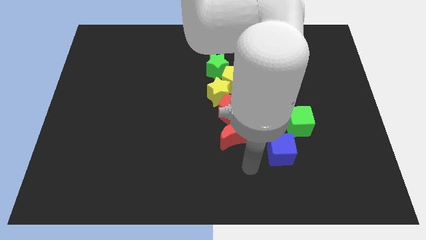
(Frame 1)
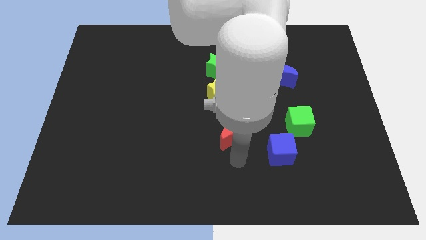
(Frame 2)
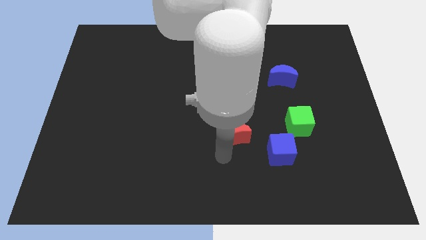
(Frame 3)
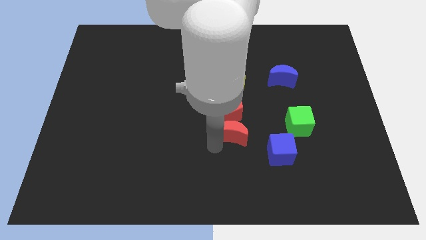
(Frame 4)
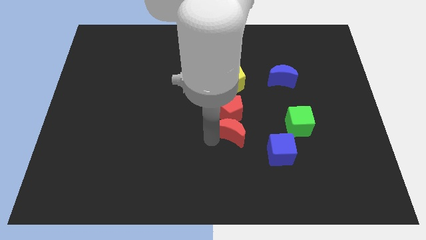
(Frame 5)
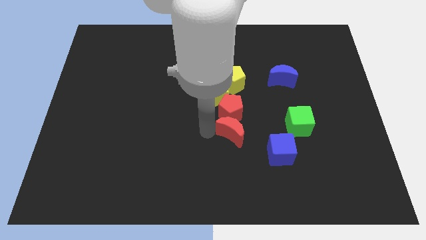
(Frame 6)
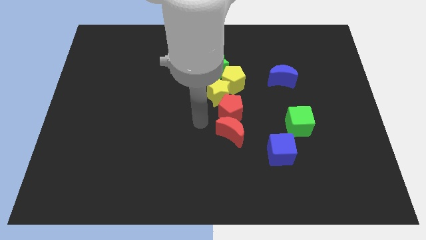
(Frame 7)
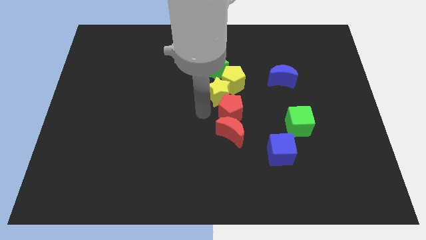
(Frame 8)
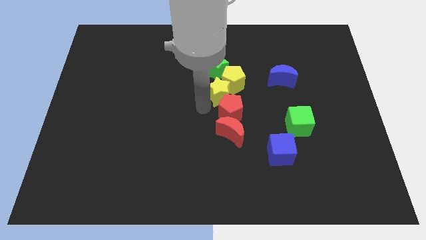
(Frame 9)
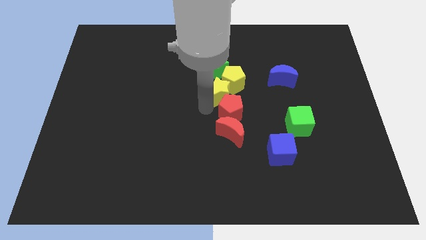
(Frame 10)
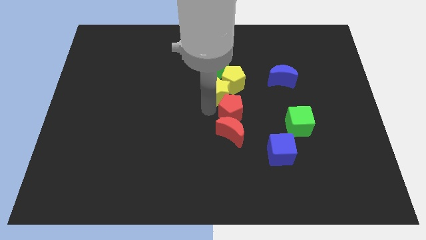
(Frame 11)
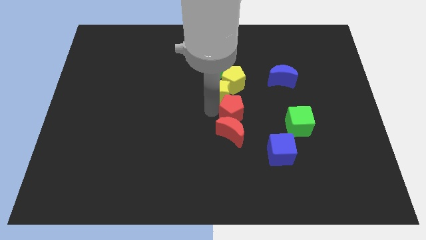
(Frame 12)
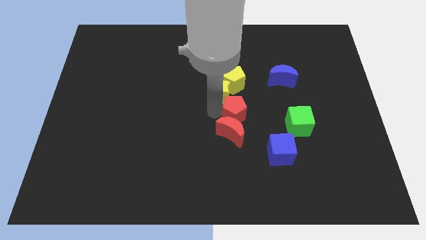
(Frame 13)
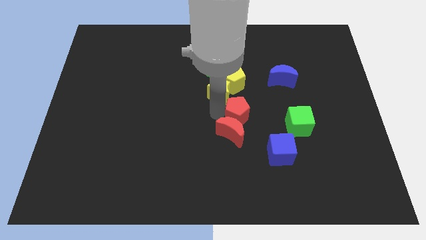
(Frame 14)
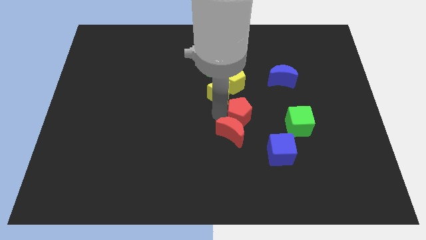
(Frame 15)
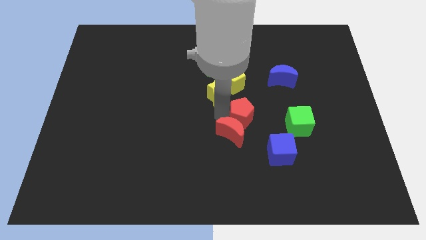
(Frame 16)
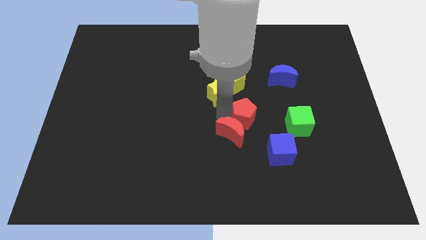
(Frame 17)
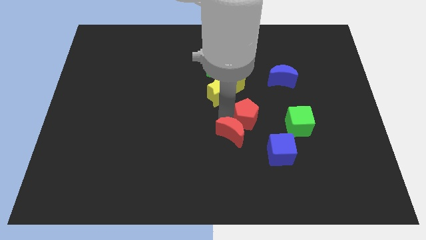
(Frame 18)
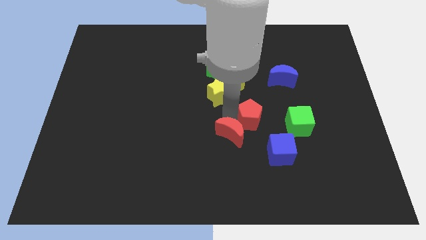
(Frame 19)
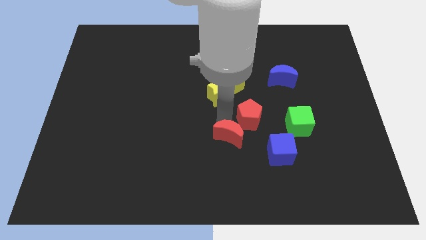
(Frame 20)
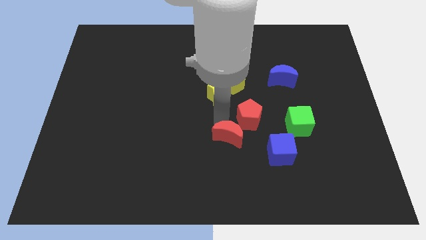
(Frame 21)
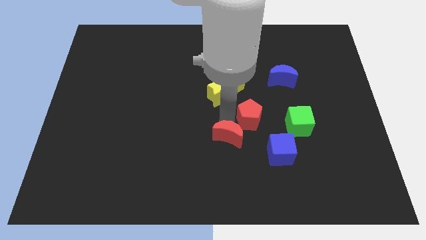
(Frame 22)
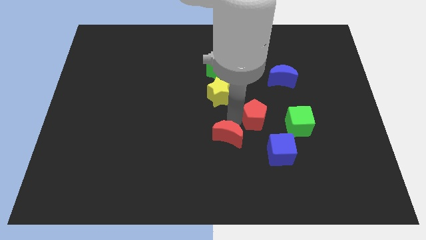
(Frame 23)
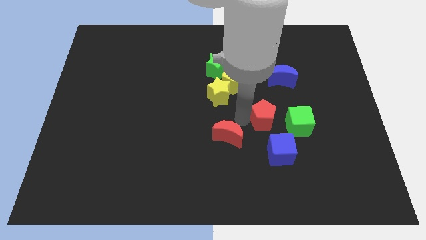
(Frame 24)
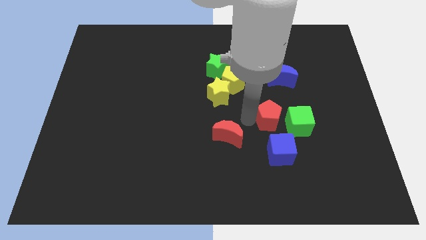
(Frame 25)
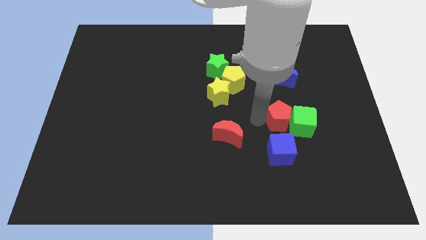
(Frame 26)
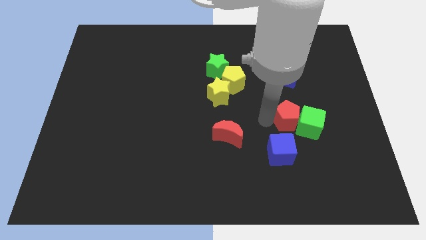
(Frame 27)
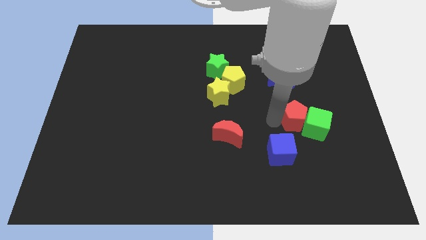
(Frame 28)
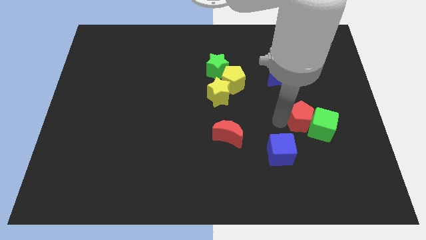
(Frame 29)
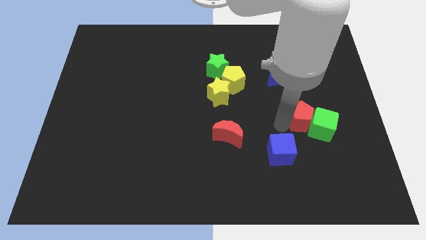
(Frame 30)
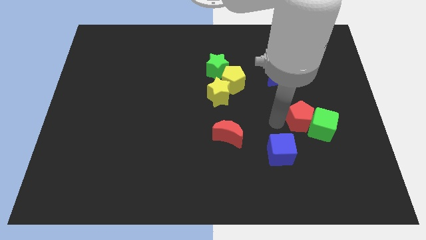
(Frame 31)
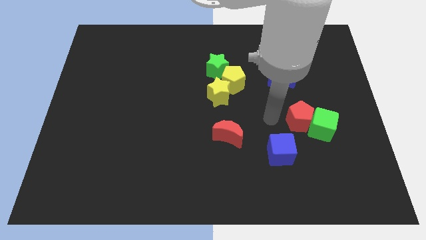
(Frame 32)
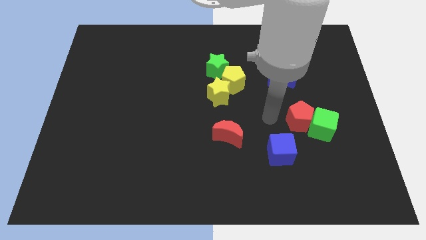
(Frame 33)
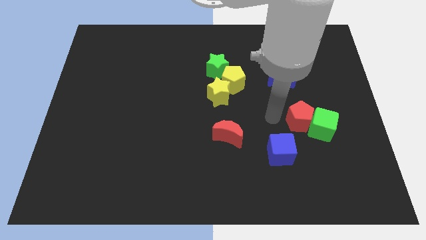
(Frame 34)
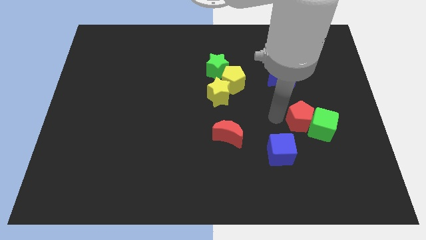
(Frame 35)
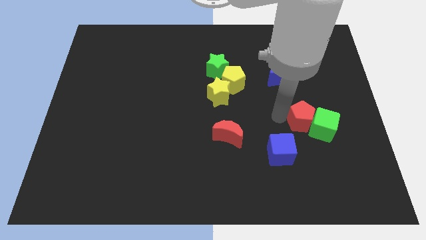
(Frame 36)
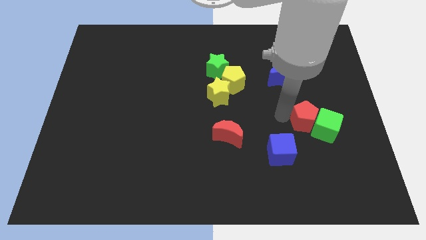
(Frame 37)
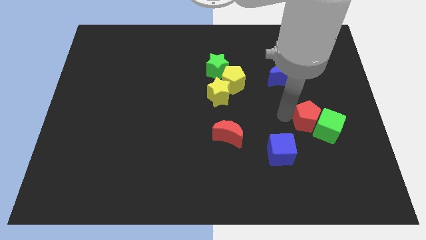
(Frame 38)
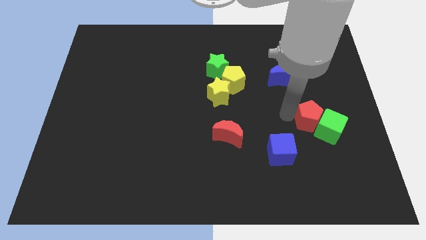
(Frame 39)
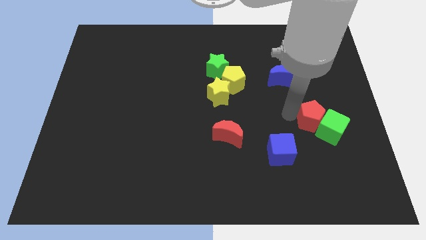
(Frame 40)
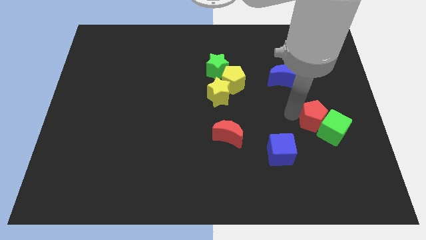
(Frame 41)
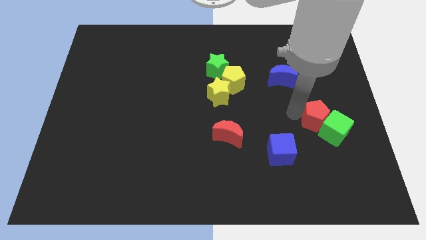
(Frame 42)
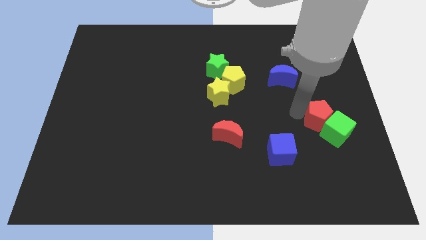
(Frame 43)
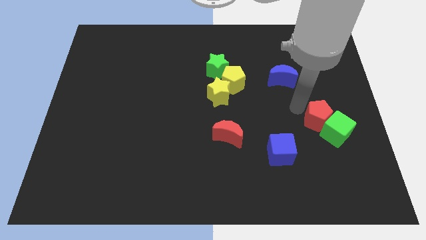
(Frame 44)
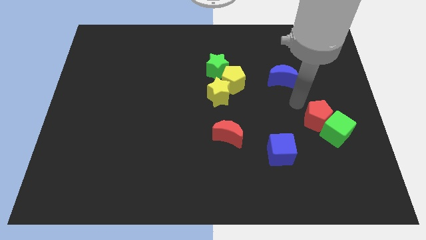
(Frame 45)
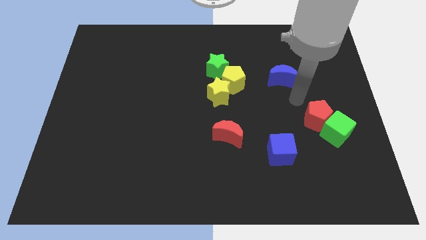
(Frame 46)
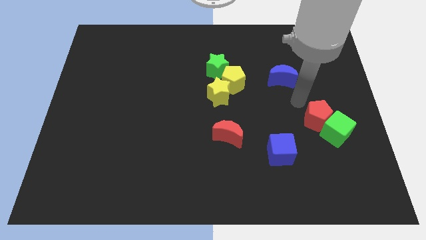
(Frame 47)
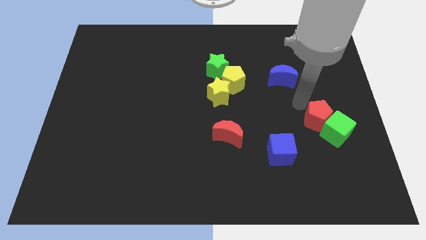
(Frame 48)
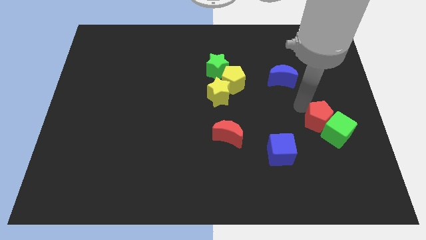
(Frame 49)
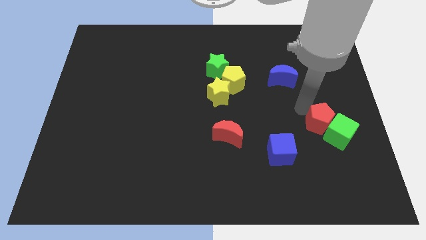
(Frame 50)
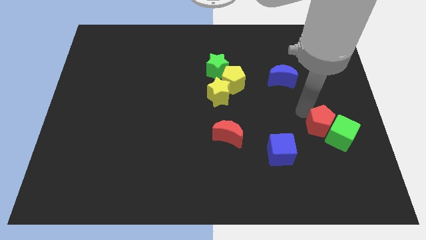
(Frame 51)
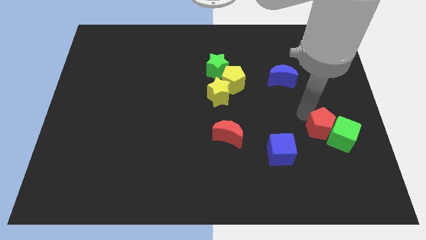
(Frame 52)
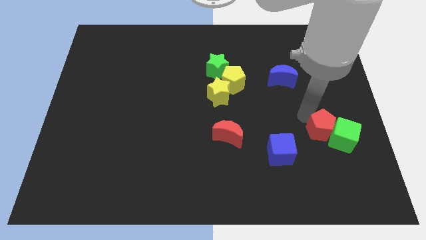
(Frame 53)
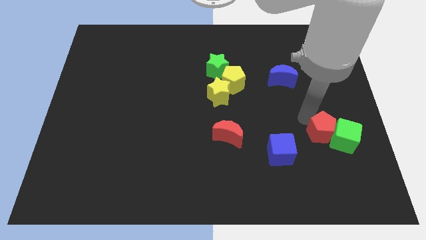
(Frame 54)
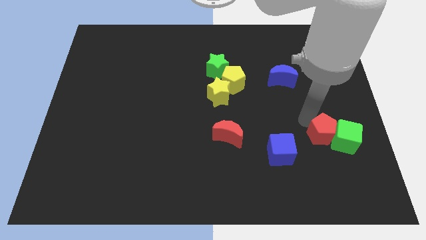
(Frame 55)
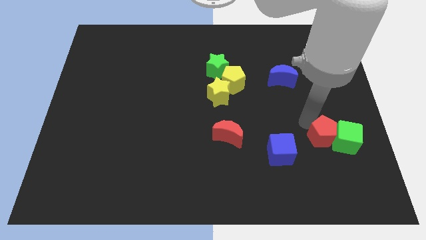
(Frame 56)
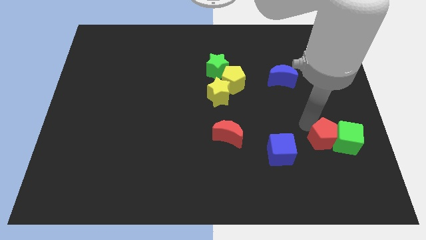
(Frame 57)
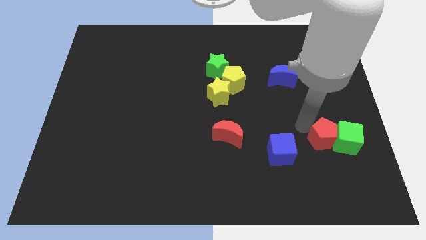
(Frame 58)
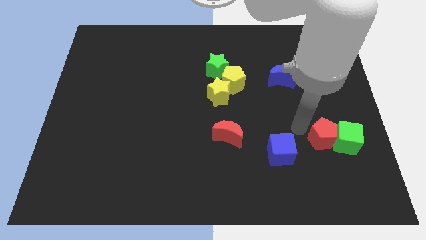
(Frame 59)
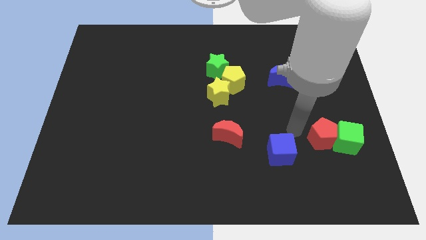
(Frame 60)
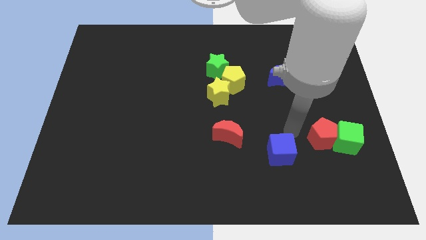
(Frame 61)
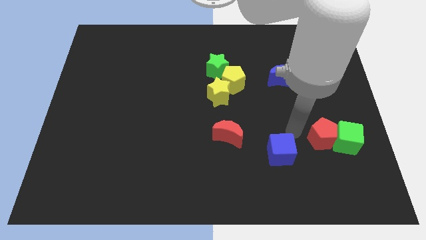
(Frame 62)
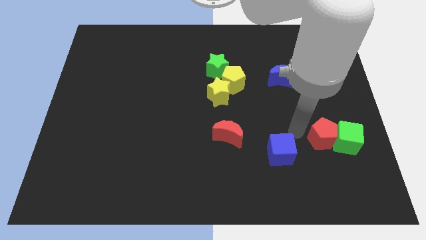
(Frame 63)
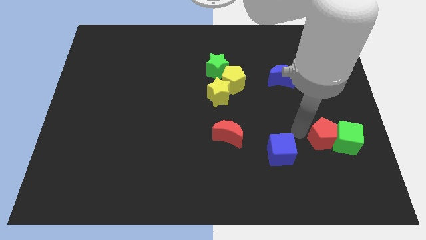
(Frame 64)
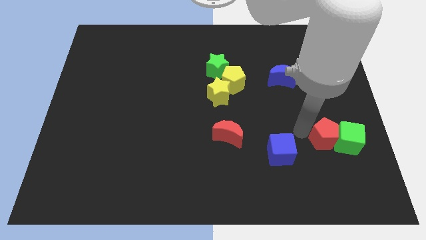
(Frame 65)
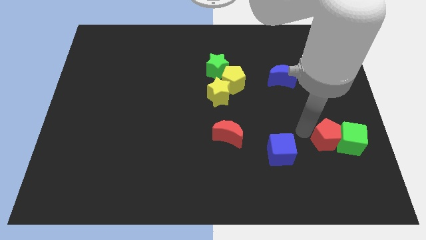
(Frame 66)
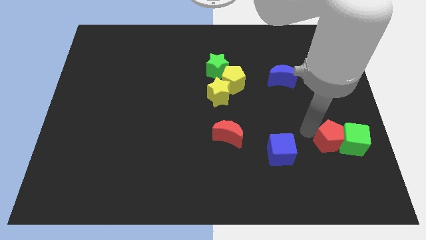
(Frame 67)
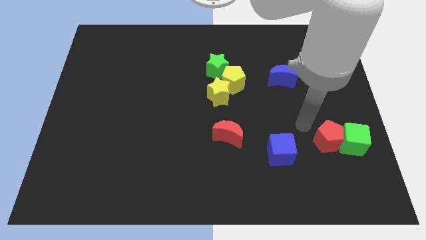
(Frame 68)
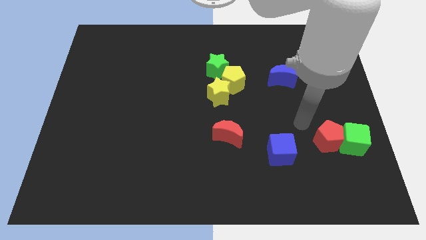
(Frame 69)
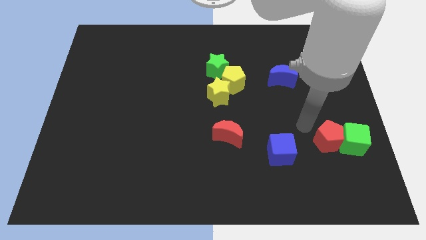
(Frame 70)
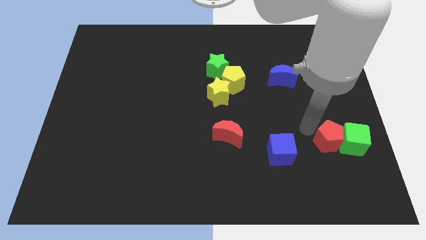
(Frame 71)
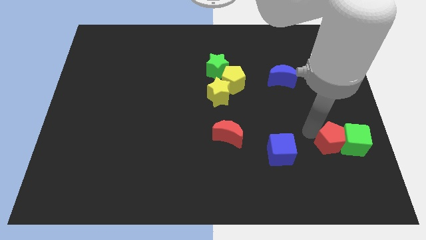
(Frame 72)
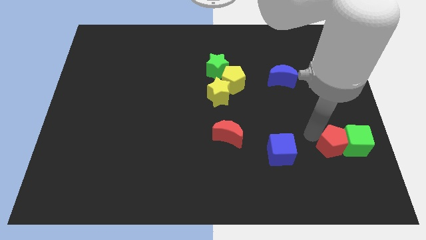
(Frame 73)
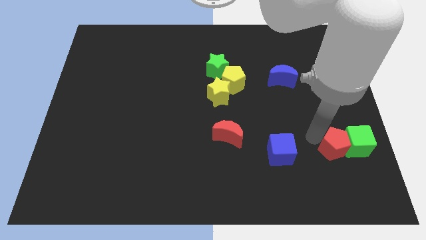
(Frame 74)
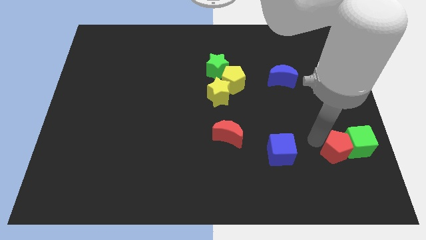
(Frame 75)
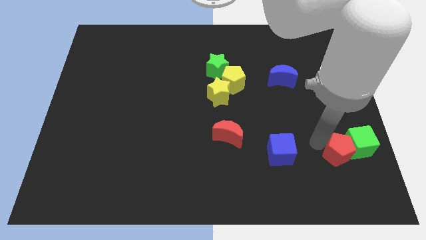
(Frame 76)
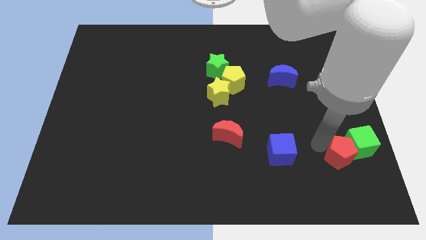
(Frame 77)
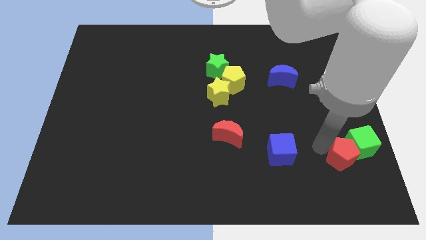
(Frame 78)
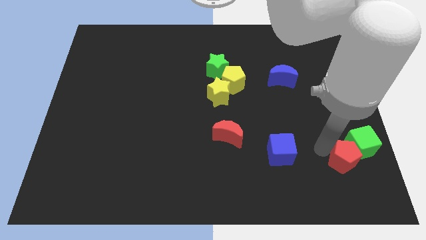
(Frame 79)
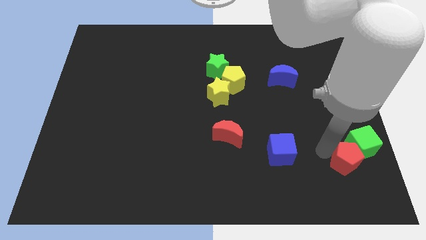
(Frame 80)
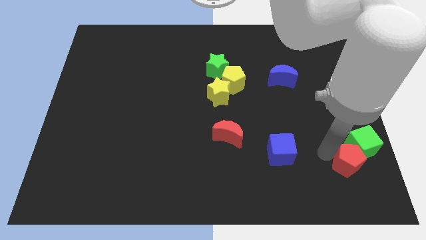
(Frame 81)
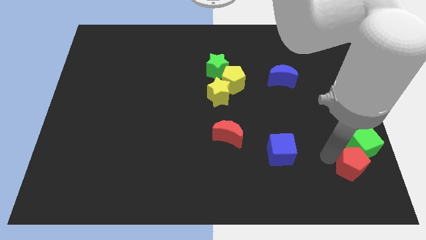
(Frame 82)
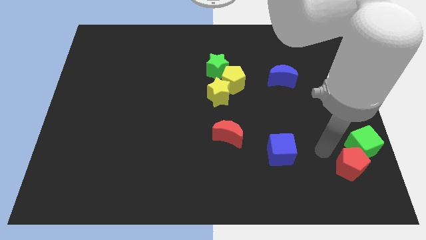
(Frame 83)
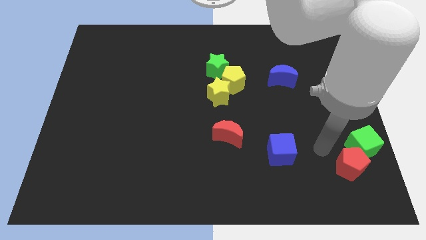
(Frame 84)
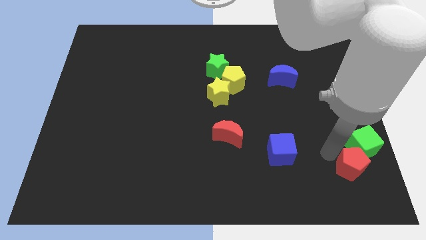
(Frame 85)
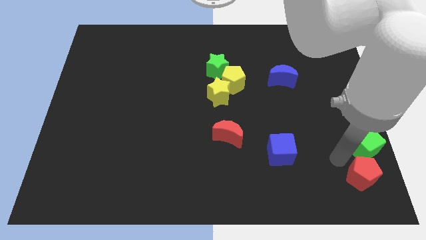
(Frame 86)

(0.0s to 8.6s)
slide the red pentagon to the bottom right
